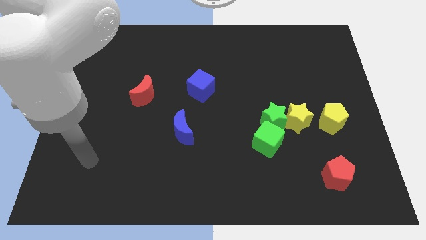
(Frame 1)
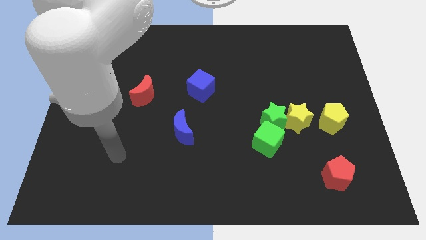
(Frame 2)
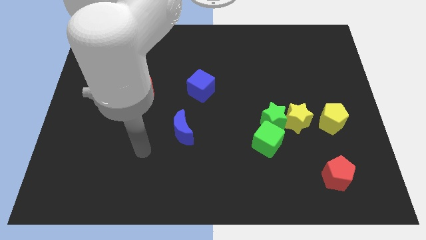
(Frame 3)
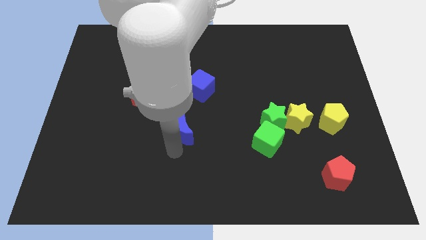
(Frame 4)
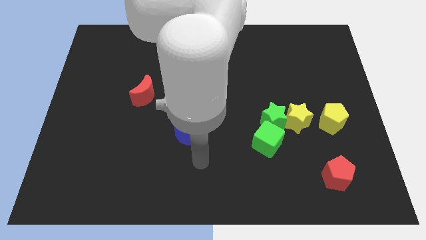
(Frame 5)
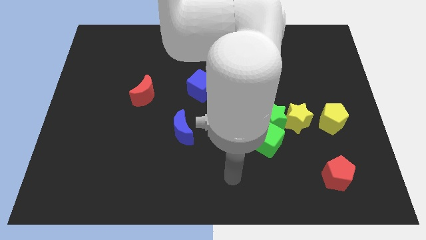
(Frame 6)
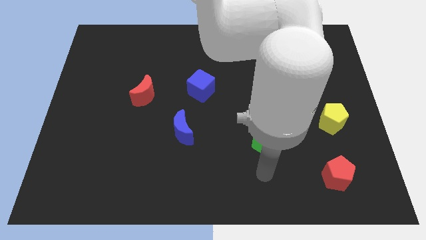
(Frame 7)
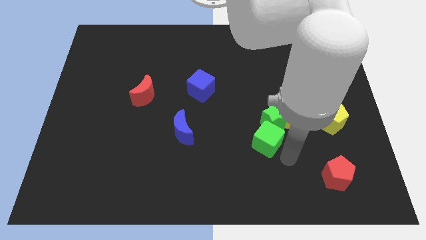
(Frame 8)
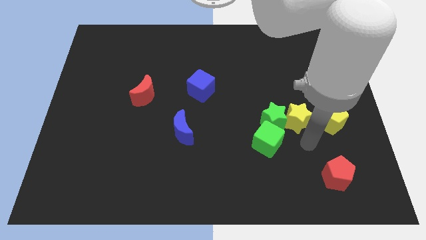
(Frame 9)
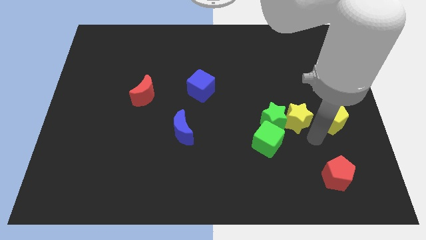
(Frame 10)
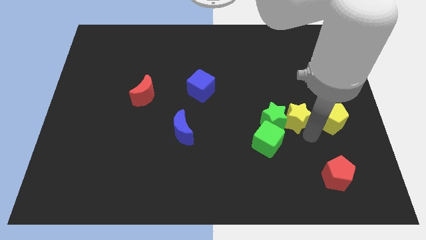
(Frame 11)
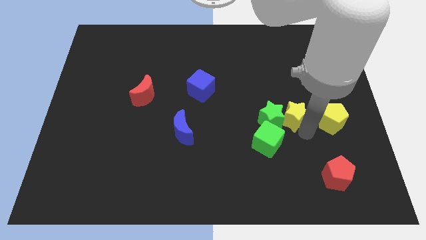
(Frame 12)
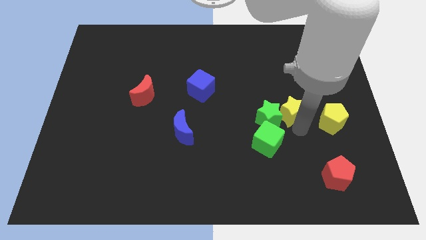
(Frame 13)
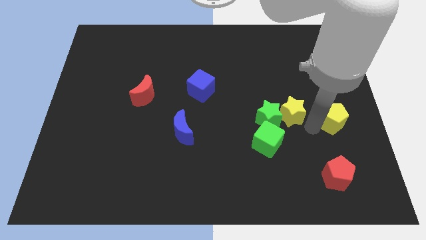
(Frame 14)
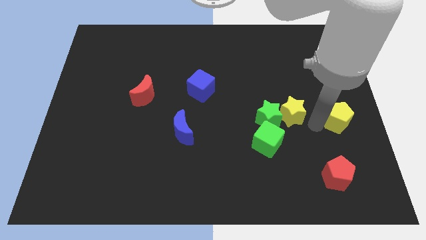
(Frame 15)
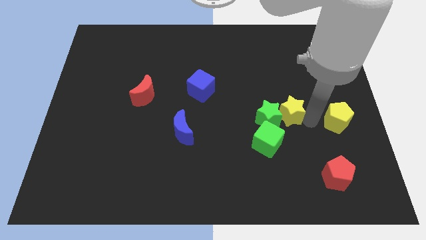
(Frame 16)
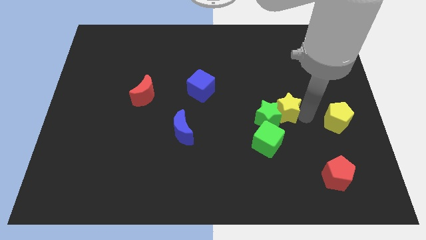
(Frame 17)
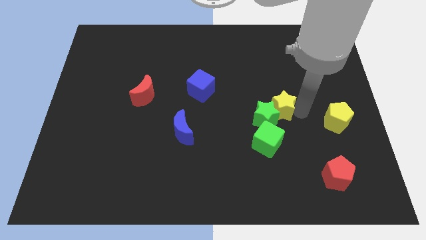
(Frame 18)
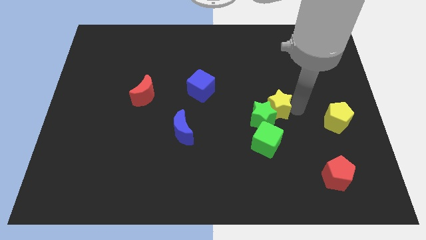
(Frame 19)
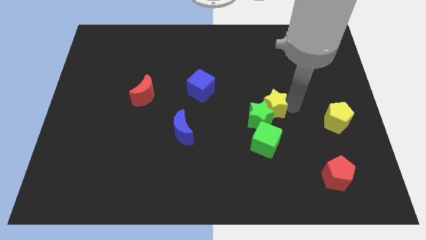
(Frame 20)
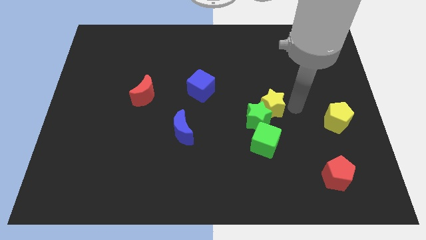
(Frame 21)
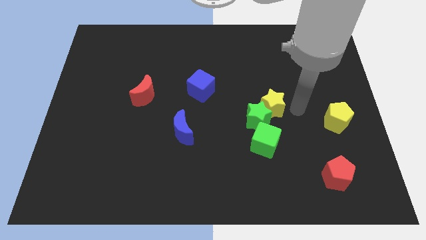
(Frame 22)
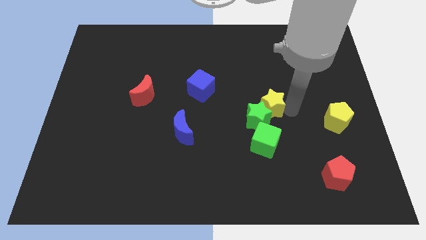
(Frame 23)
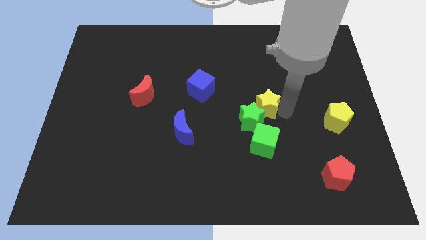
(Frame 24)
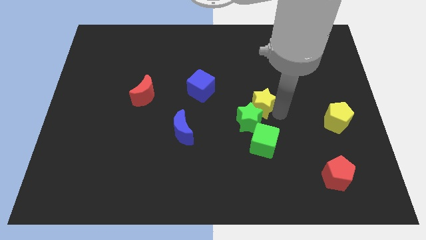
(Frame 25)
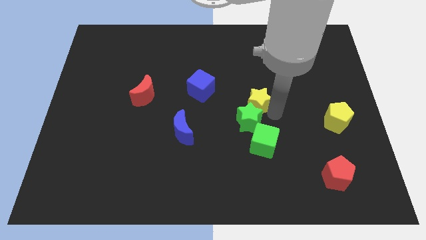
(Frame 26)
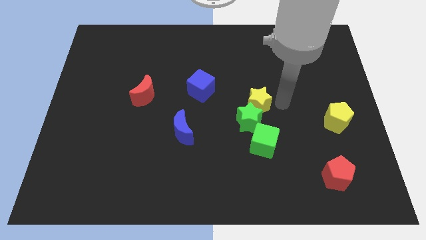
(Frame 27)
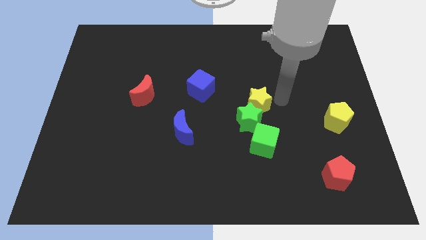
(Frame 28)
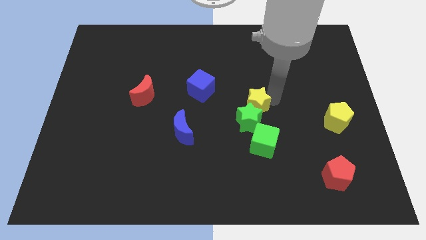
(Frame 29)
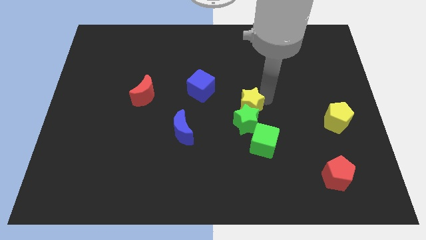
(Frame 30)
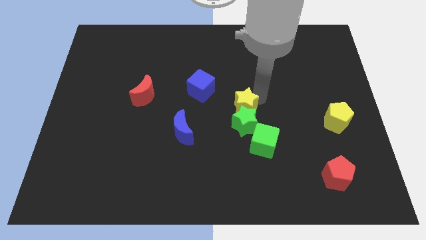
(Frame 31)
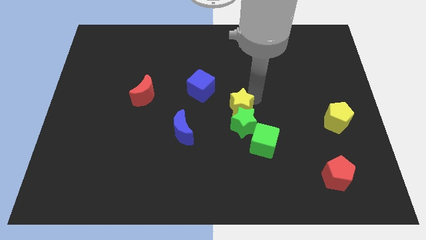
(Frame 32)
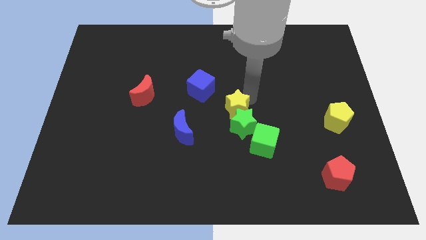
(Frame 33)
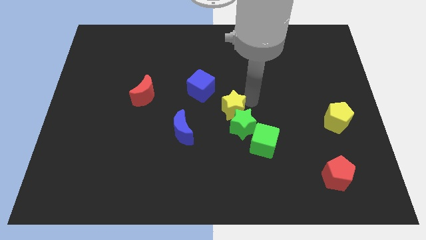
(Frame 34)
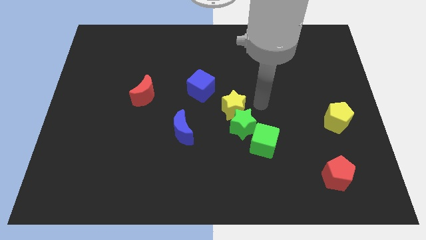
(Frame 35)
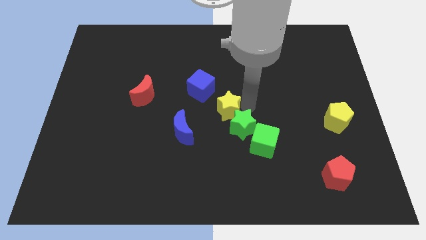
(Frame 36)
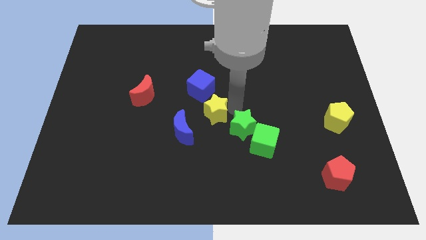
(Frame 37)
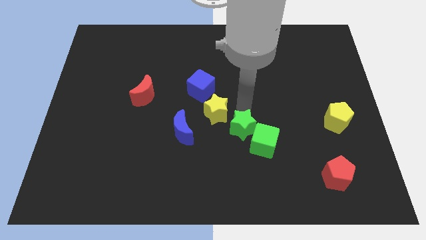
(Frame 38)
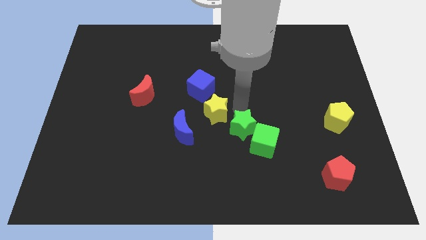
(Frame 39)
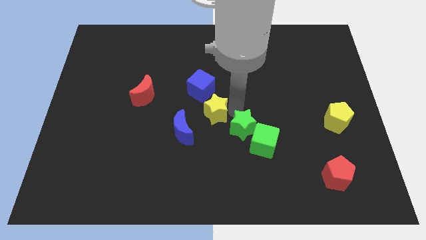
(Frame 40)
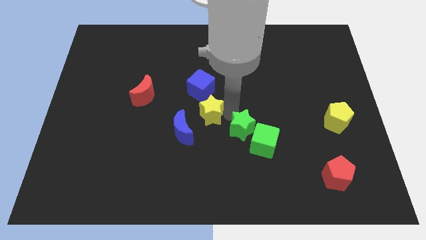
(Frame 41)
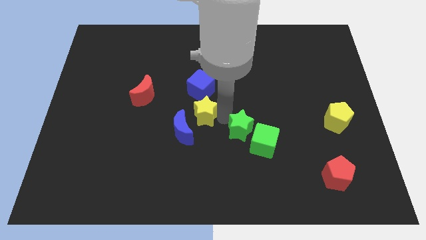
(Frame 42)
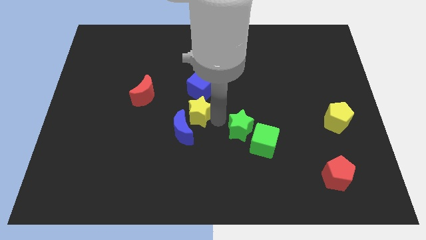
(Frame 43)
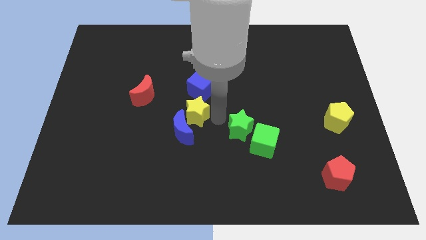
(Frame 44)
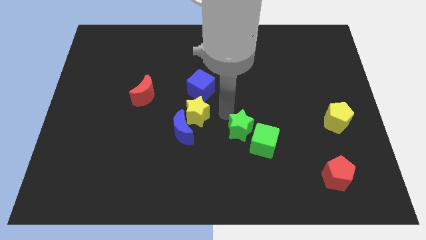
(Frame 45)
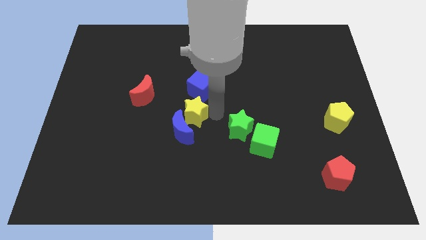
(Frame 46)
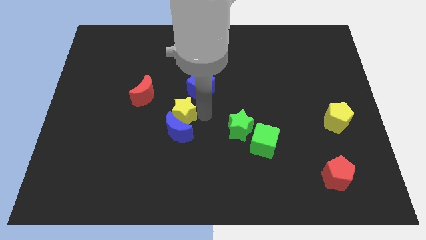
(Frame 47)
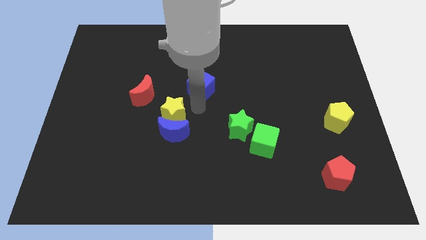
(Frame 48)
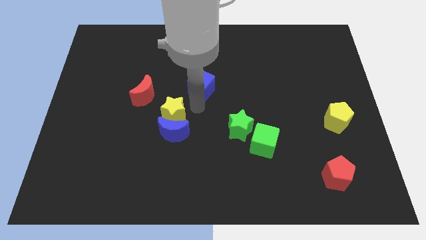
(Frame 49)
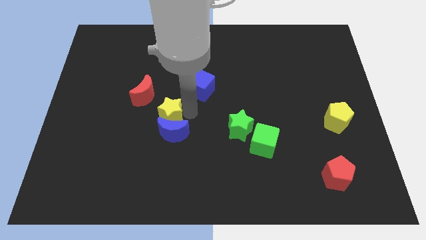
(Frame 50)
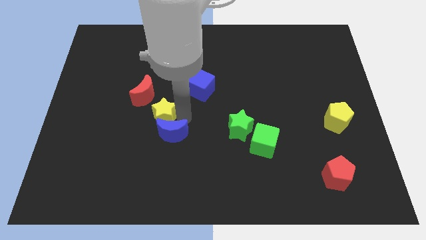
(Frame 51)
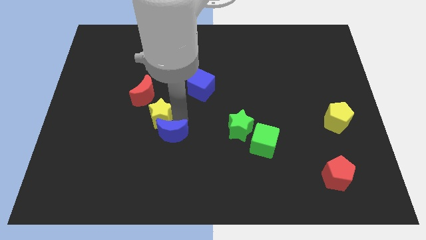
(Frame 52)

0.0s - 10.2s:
put the yellow star to the left side of the blue moon

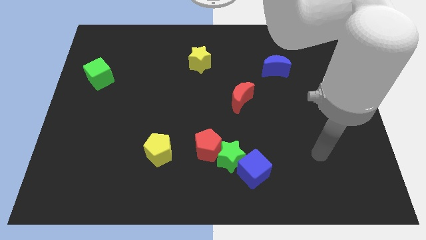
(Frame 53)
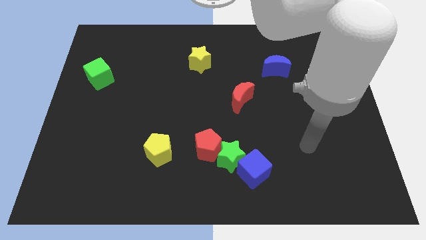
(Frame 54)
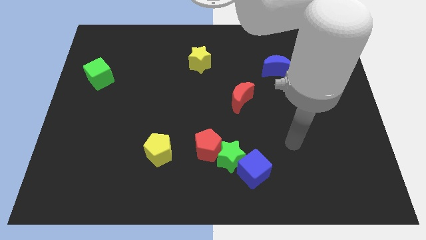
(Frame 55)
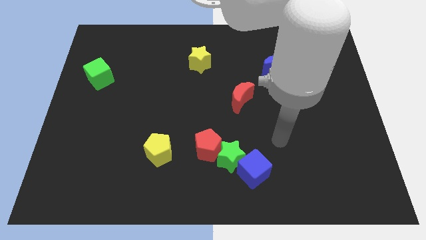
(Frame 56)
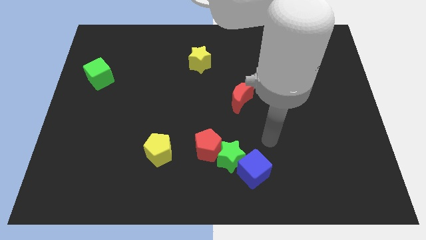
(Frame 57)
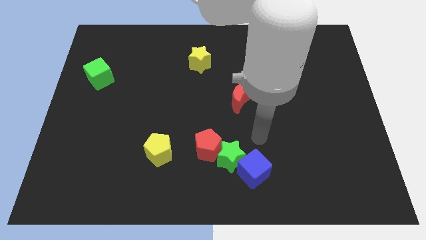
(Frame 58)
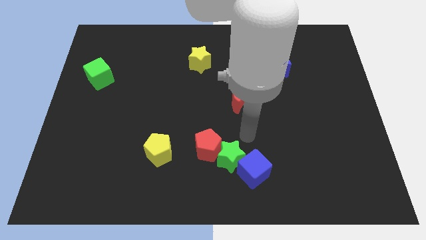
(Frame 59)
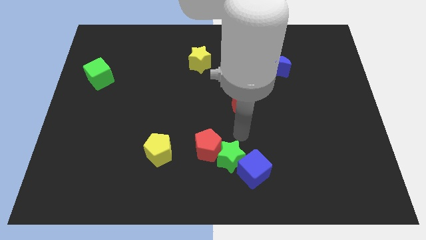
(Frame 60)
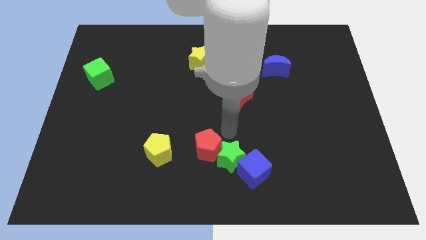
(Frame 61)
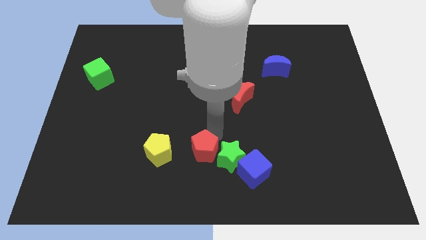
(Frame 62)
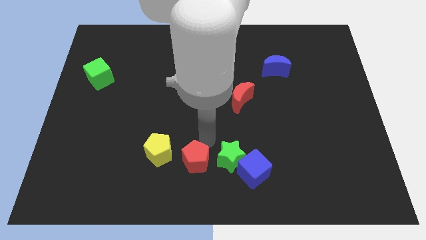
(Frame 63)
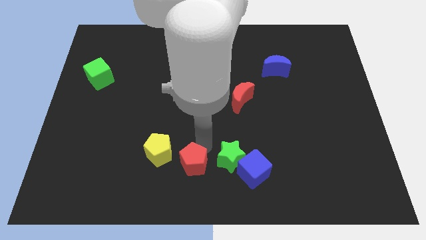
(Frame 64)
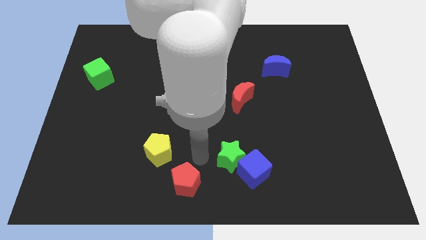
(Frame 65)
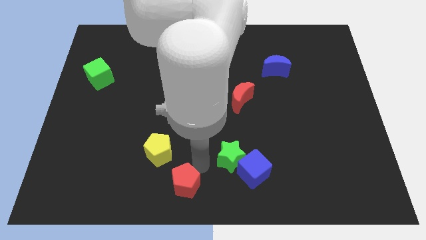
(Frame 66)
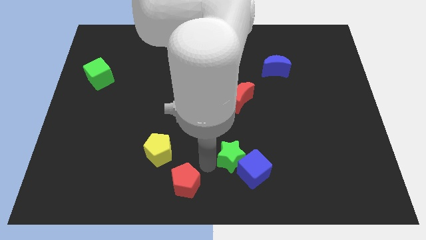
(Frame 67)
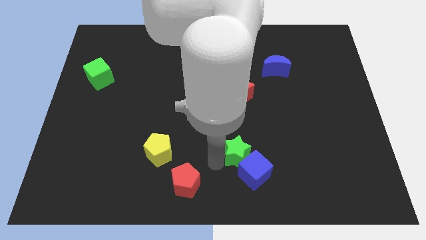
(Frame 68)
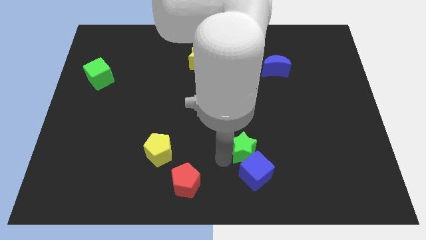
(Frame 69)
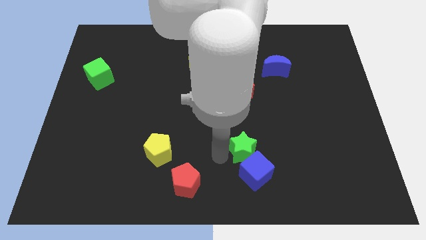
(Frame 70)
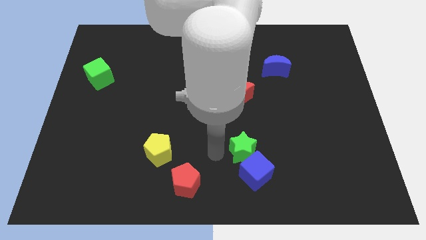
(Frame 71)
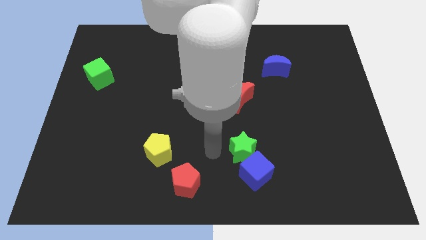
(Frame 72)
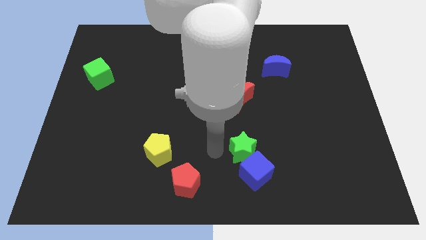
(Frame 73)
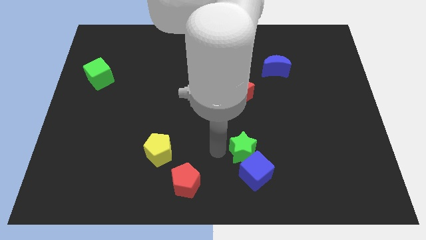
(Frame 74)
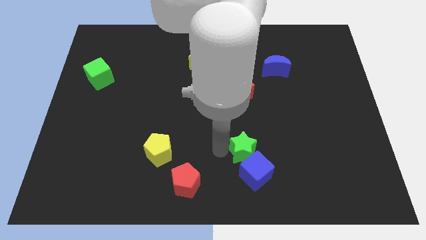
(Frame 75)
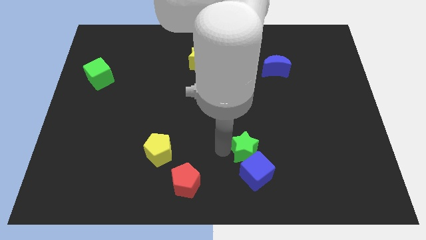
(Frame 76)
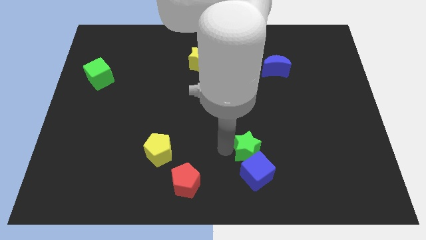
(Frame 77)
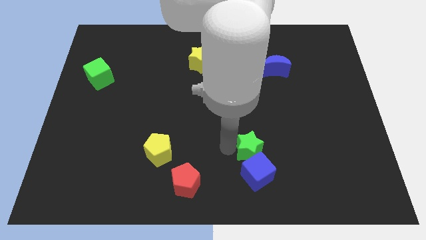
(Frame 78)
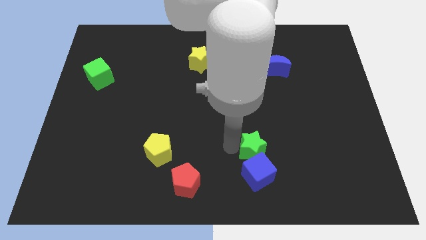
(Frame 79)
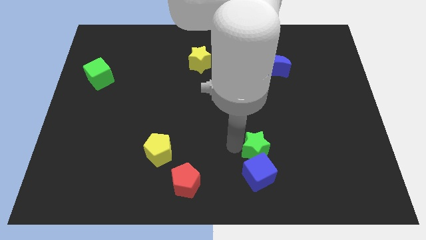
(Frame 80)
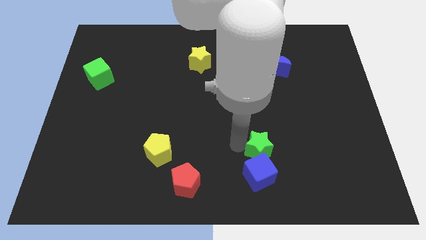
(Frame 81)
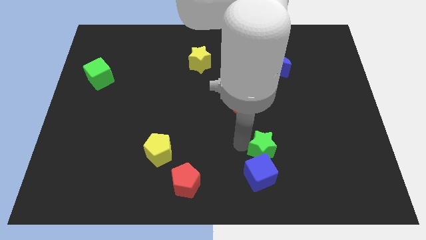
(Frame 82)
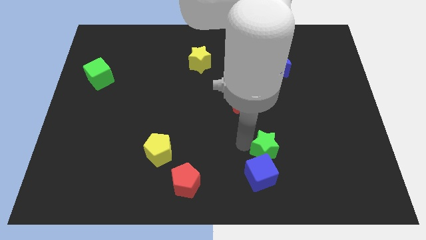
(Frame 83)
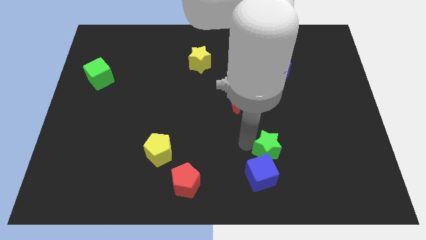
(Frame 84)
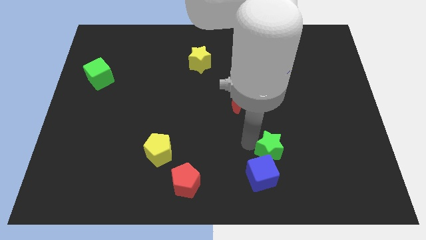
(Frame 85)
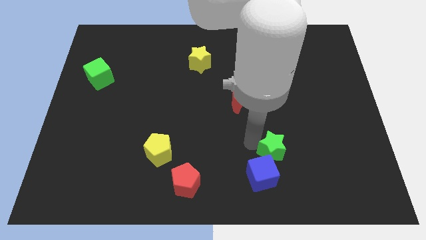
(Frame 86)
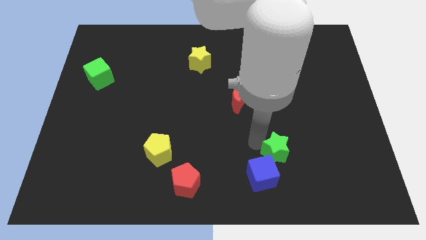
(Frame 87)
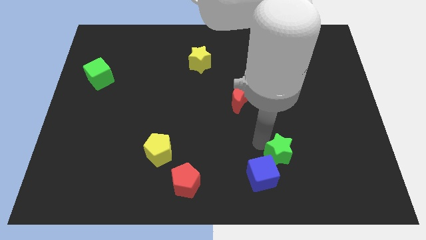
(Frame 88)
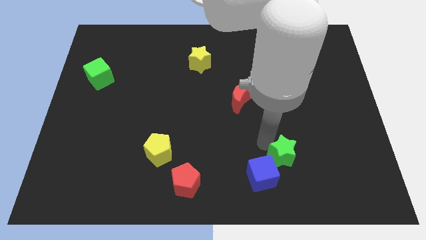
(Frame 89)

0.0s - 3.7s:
put the green star to the right side of the blue cube
